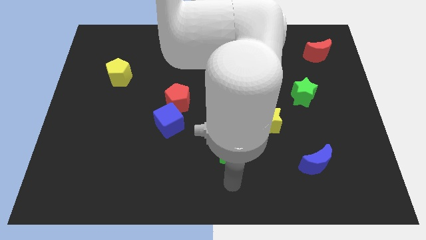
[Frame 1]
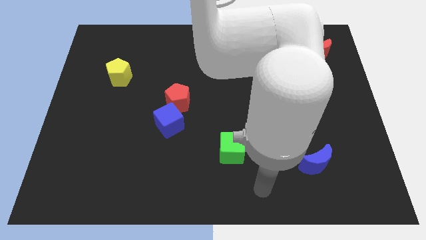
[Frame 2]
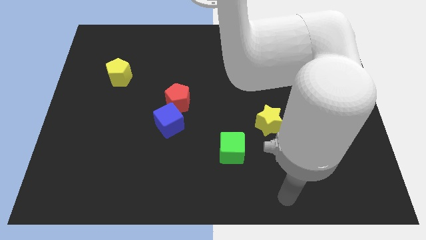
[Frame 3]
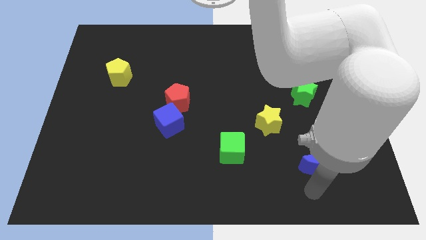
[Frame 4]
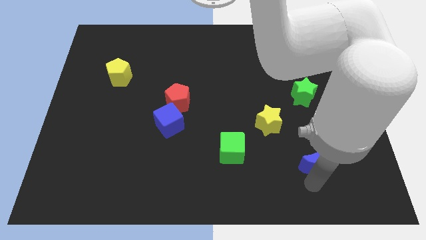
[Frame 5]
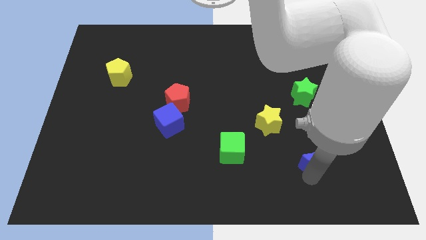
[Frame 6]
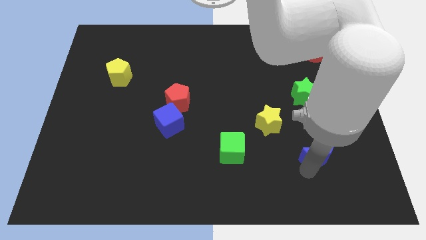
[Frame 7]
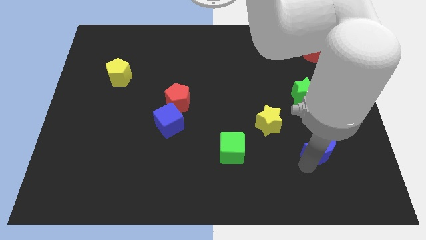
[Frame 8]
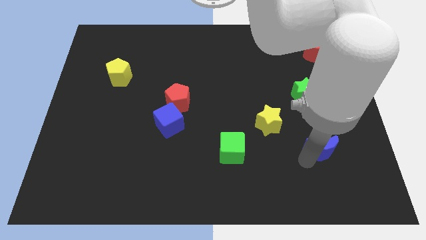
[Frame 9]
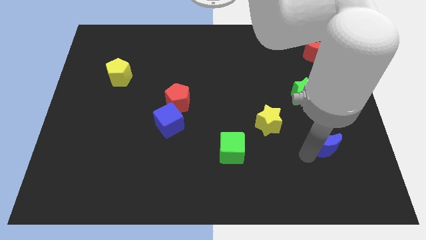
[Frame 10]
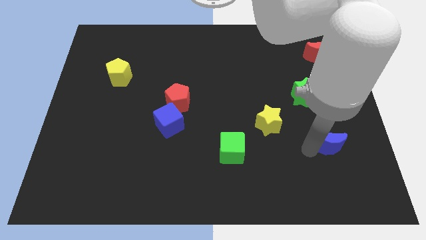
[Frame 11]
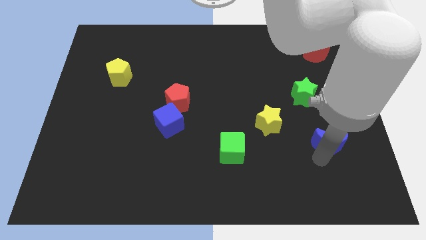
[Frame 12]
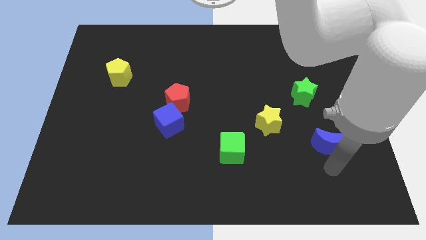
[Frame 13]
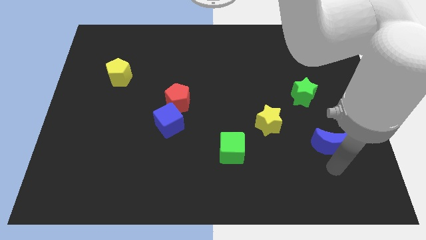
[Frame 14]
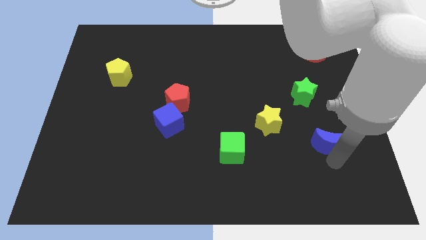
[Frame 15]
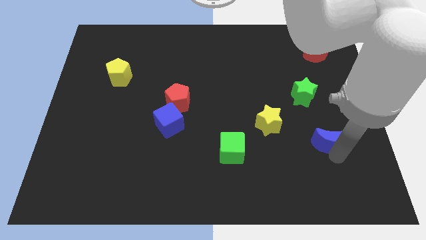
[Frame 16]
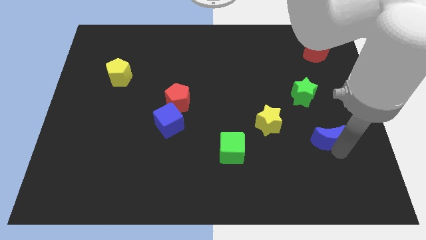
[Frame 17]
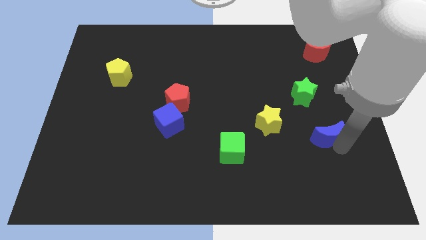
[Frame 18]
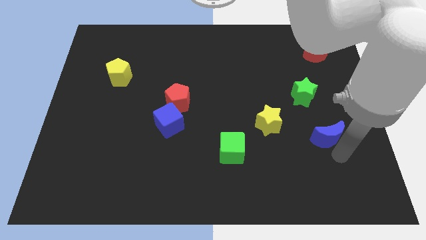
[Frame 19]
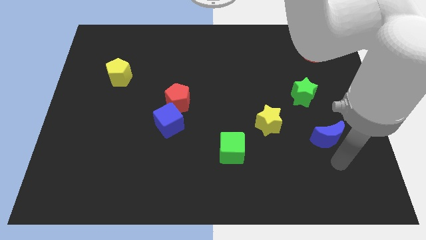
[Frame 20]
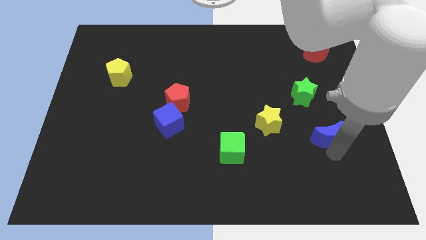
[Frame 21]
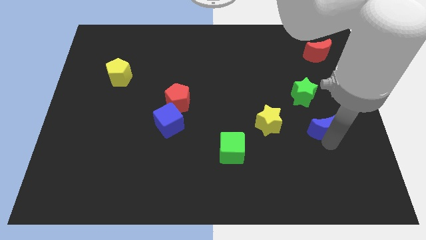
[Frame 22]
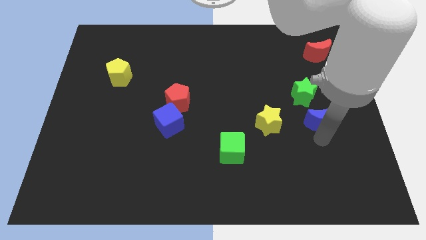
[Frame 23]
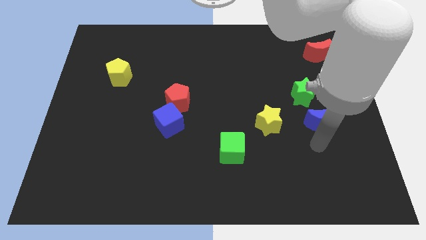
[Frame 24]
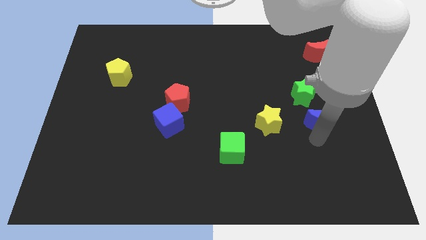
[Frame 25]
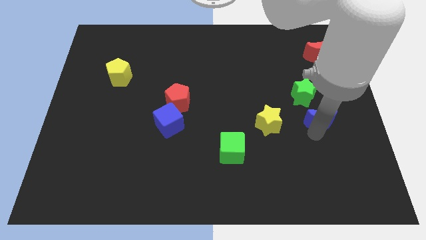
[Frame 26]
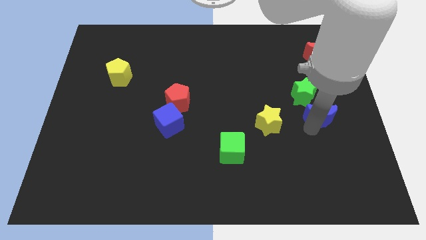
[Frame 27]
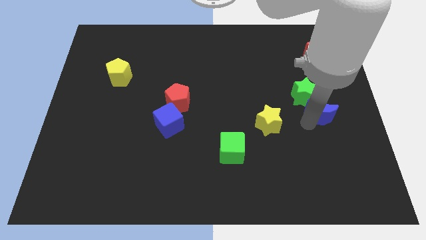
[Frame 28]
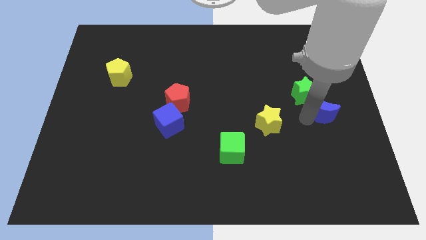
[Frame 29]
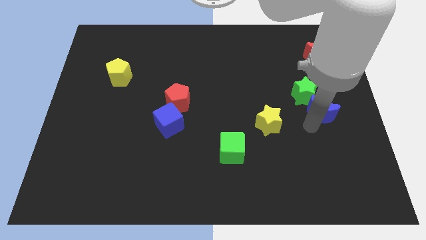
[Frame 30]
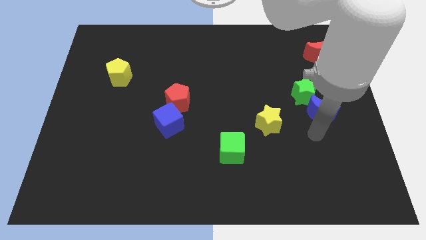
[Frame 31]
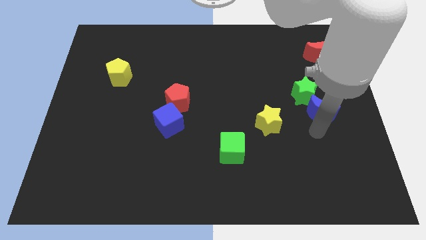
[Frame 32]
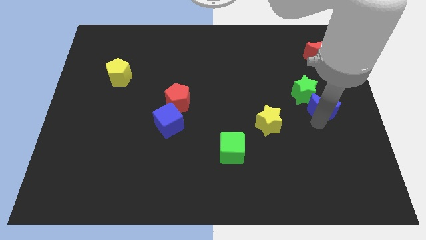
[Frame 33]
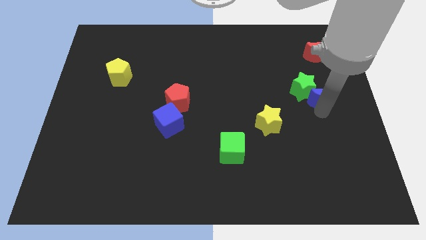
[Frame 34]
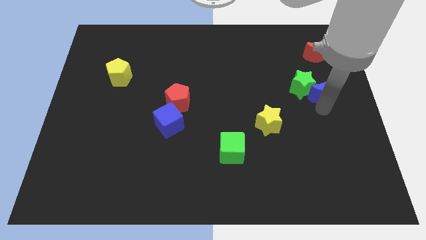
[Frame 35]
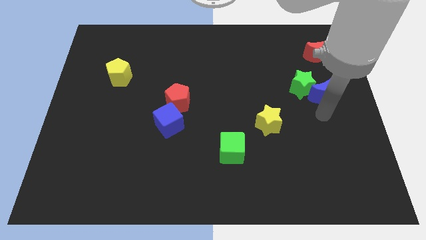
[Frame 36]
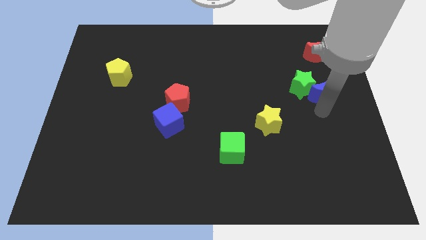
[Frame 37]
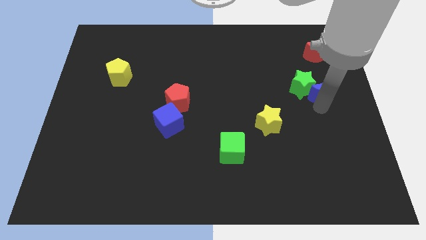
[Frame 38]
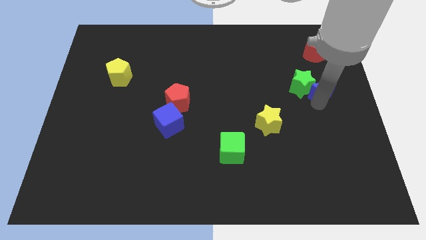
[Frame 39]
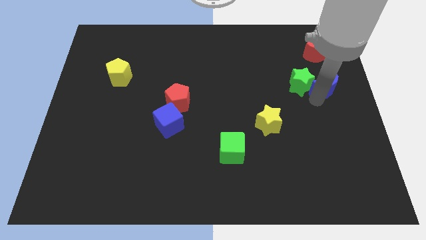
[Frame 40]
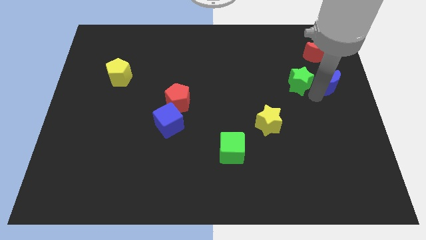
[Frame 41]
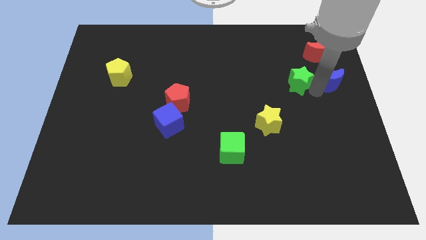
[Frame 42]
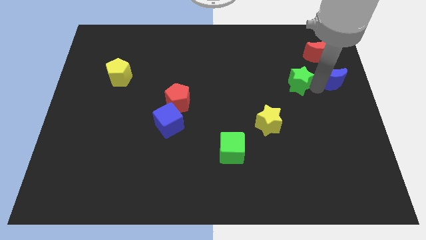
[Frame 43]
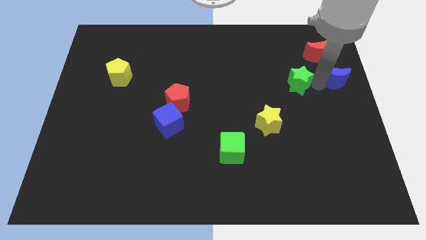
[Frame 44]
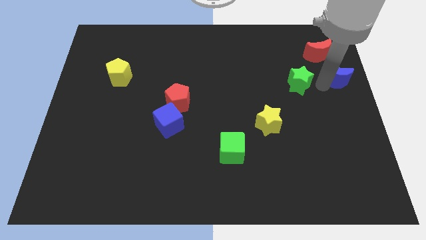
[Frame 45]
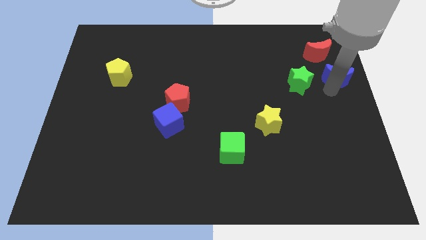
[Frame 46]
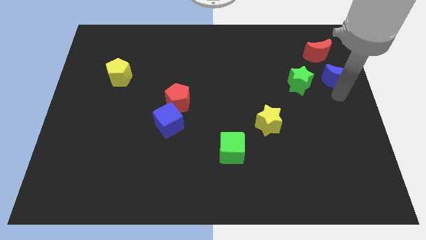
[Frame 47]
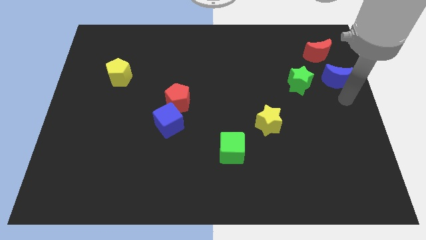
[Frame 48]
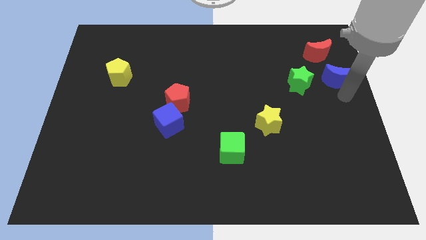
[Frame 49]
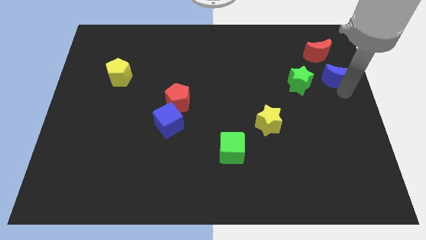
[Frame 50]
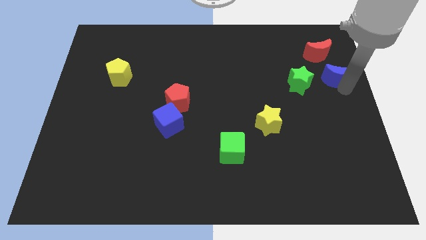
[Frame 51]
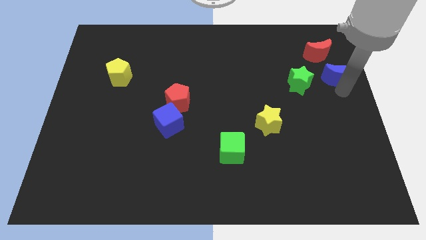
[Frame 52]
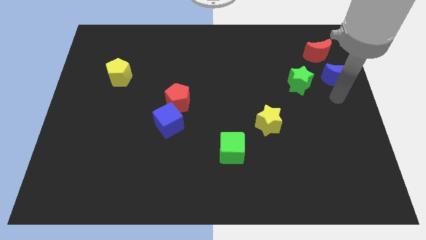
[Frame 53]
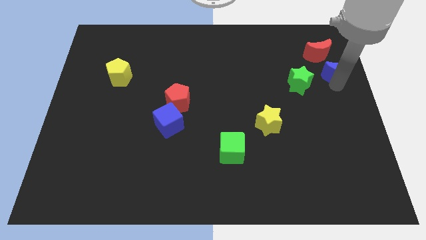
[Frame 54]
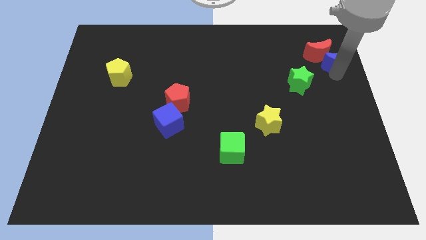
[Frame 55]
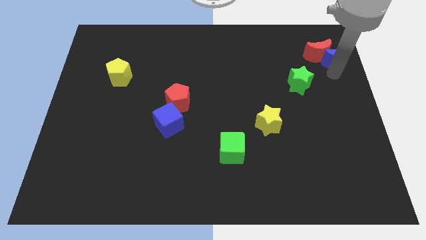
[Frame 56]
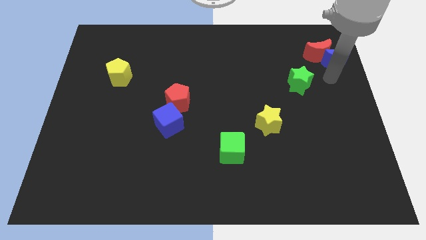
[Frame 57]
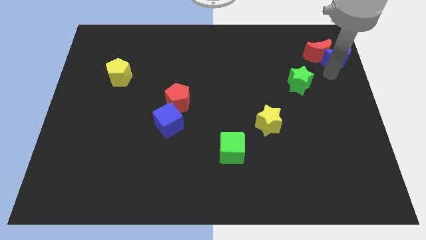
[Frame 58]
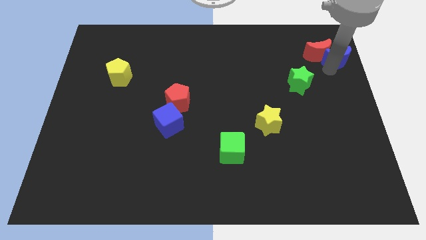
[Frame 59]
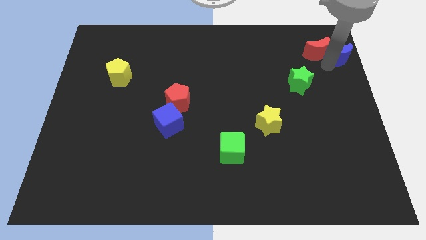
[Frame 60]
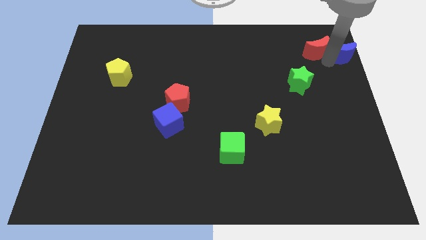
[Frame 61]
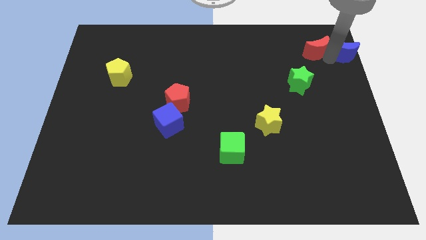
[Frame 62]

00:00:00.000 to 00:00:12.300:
slide the blue moon to the top right corner
